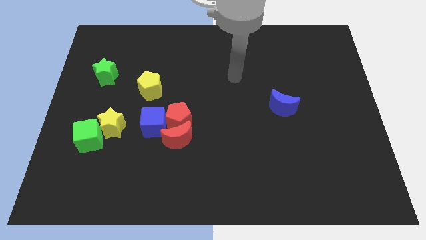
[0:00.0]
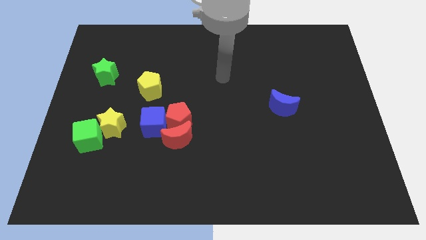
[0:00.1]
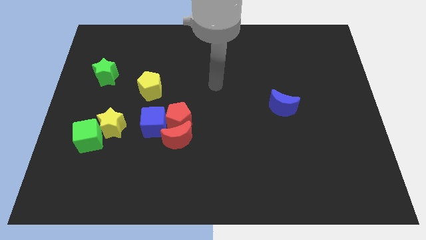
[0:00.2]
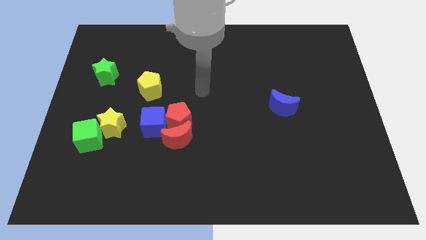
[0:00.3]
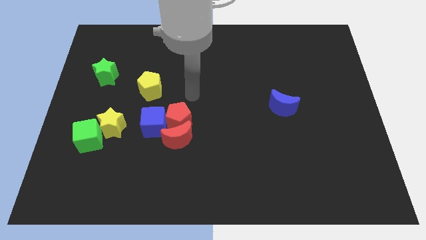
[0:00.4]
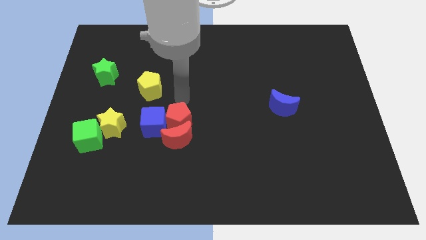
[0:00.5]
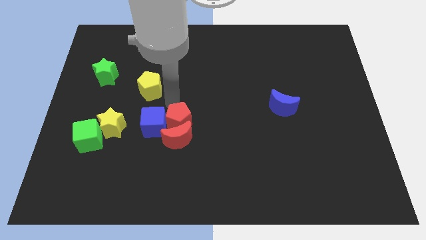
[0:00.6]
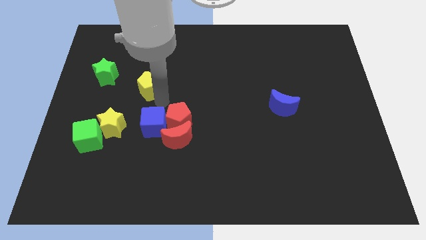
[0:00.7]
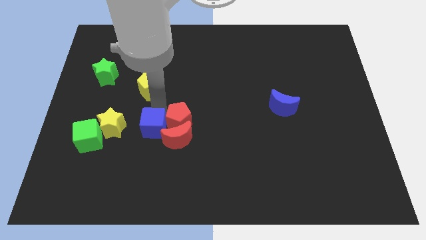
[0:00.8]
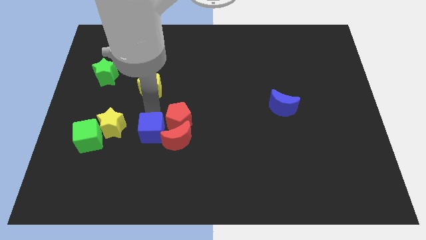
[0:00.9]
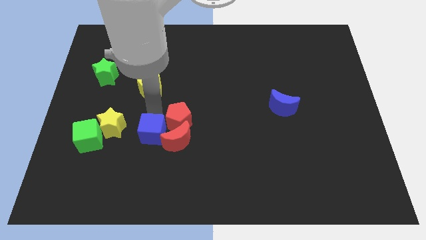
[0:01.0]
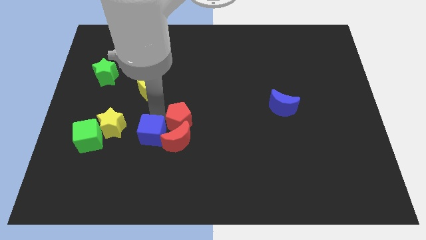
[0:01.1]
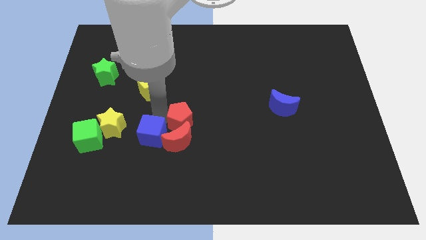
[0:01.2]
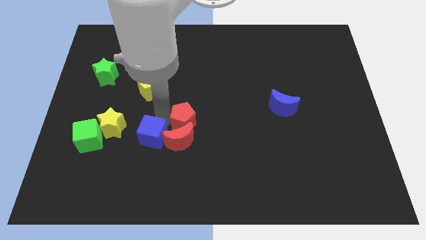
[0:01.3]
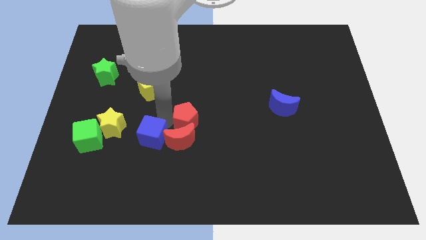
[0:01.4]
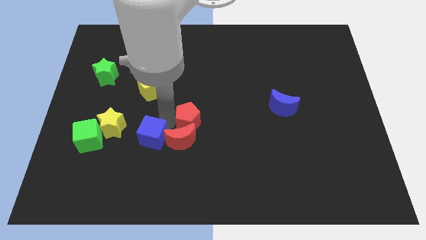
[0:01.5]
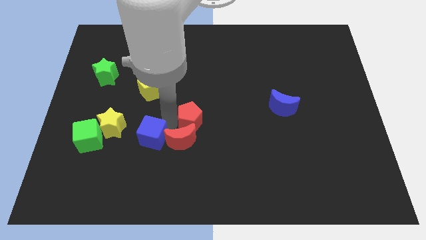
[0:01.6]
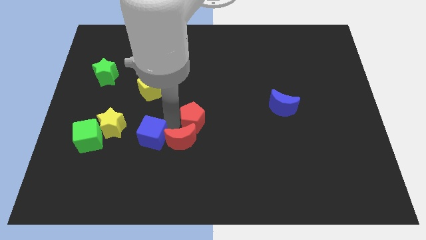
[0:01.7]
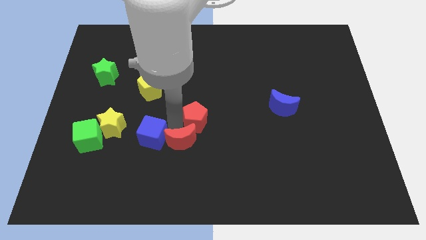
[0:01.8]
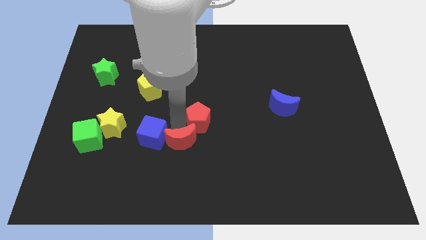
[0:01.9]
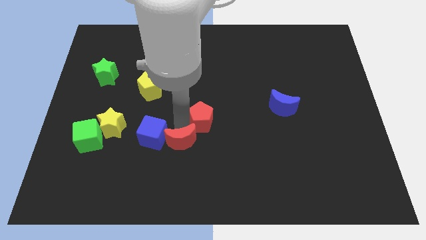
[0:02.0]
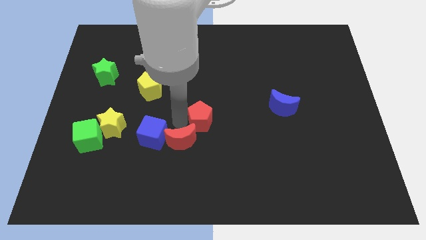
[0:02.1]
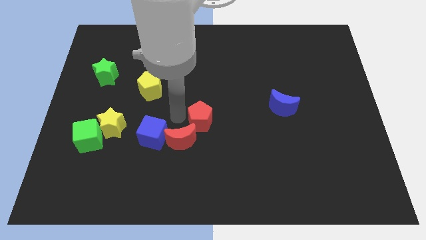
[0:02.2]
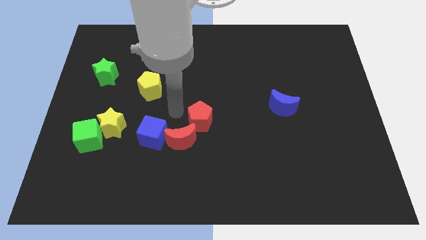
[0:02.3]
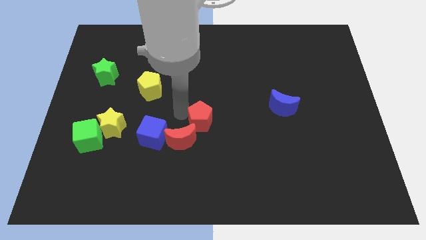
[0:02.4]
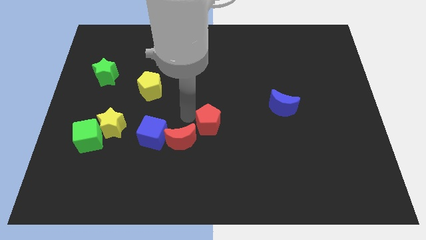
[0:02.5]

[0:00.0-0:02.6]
push the red pentagon right a bit

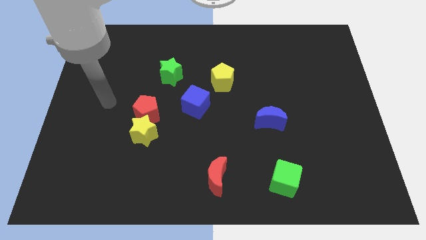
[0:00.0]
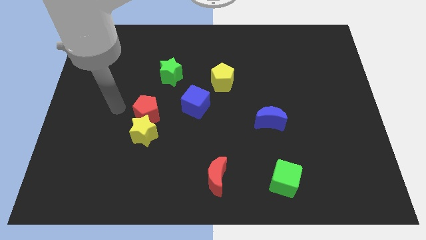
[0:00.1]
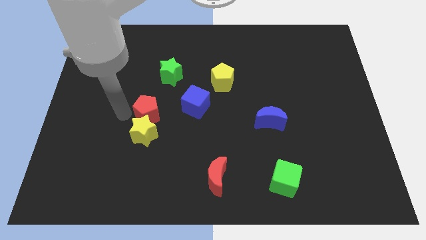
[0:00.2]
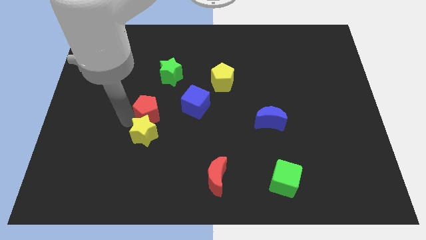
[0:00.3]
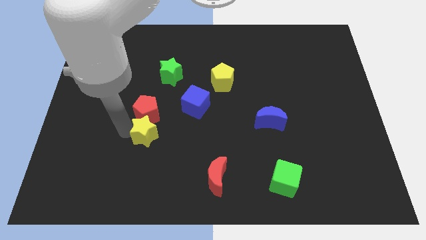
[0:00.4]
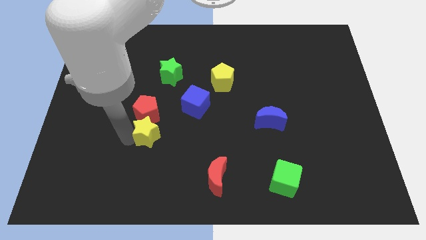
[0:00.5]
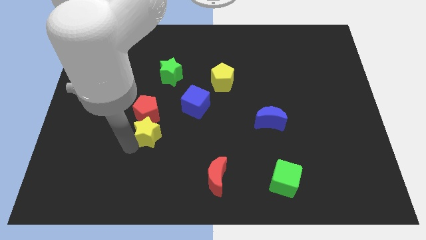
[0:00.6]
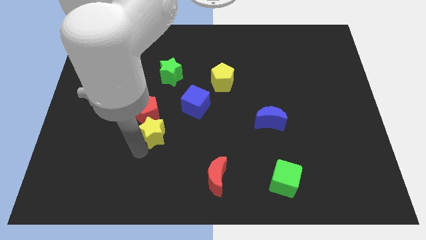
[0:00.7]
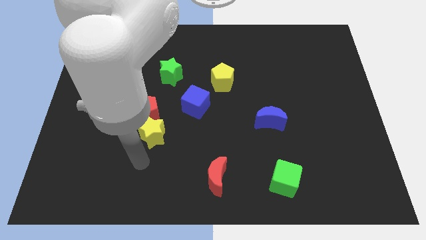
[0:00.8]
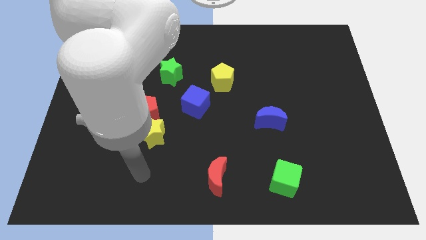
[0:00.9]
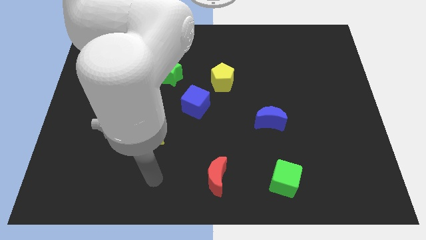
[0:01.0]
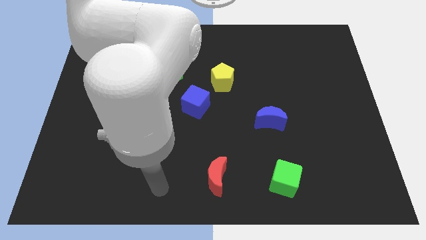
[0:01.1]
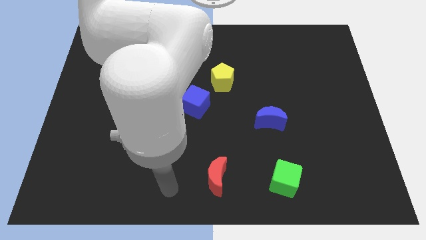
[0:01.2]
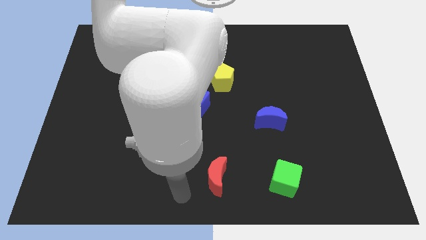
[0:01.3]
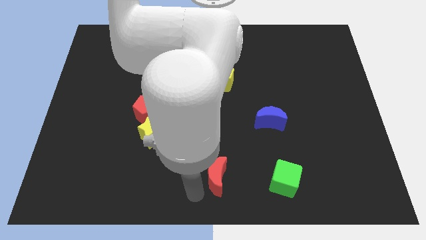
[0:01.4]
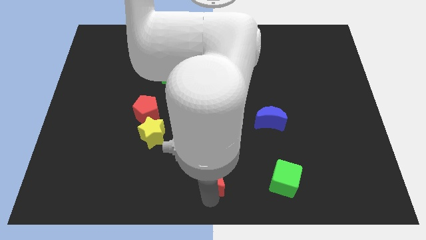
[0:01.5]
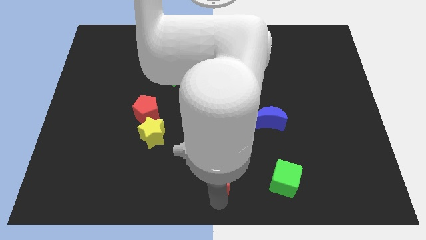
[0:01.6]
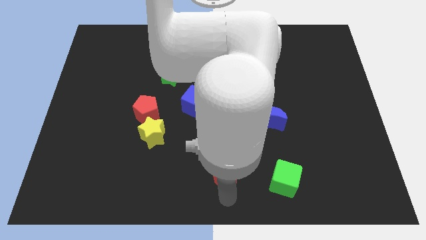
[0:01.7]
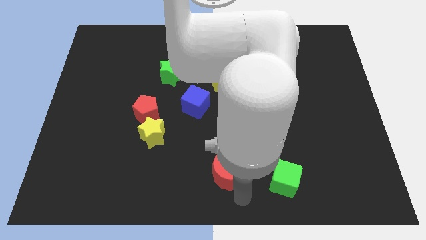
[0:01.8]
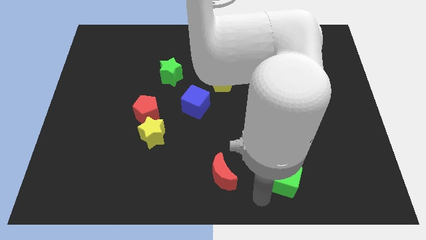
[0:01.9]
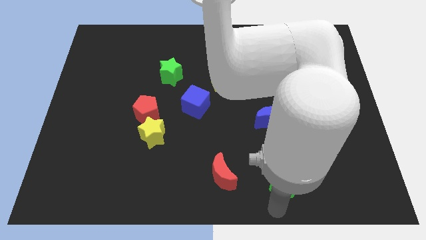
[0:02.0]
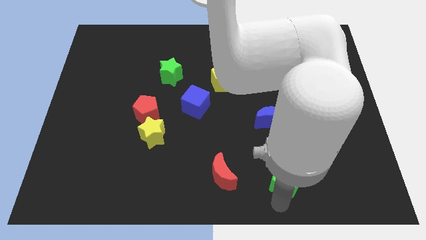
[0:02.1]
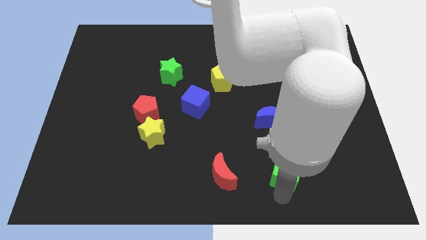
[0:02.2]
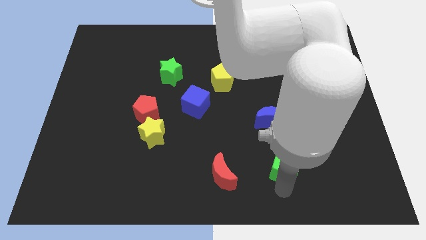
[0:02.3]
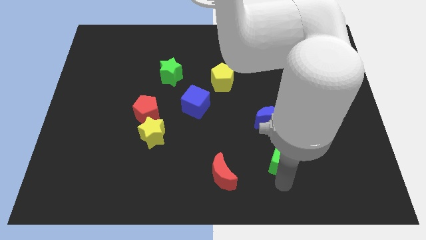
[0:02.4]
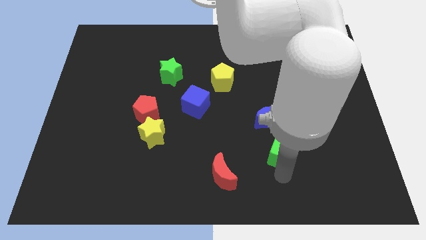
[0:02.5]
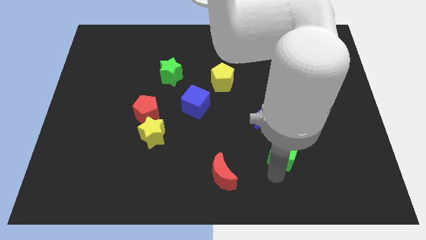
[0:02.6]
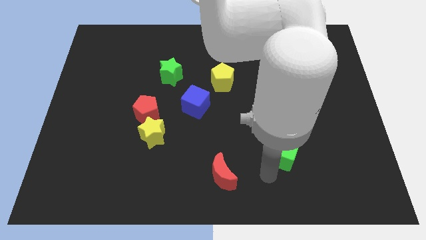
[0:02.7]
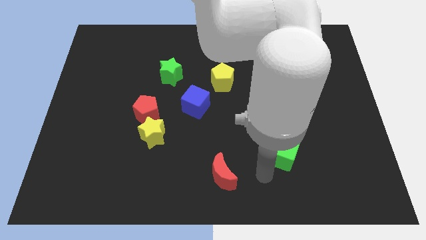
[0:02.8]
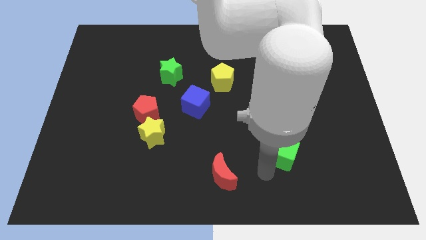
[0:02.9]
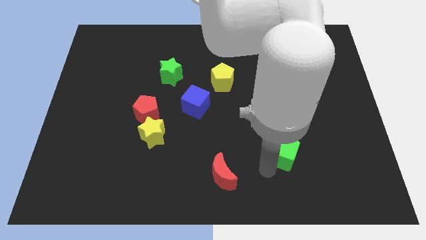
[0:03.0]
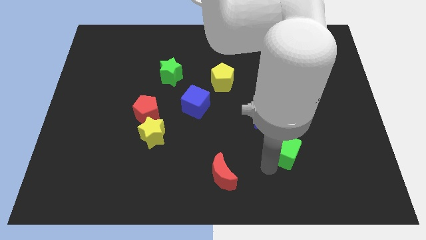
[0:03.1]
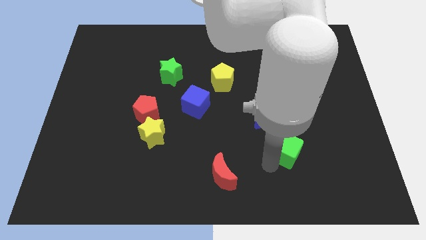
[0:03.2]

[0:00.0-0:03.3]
push the green cube a little bit up

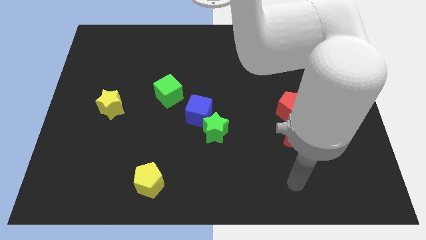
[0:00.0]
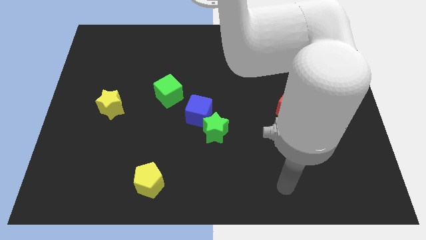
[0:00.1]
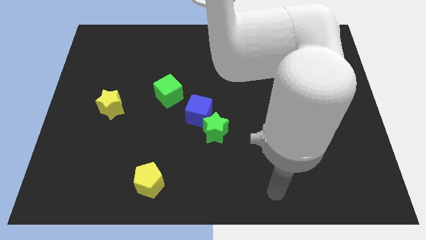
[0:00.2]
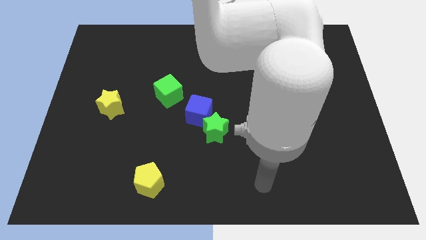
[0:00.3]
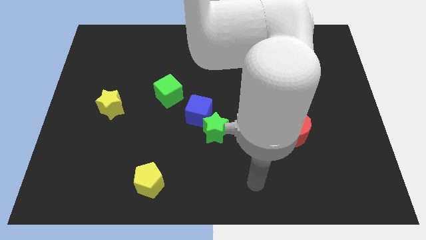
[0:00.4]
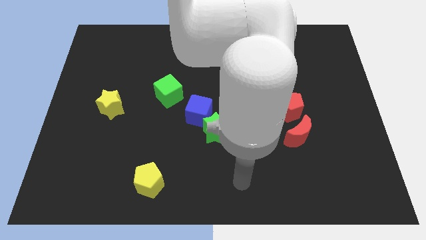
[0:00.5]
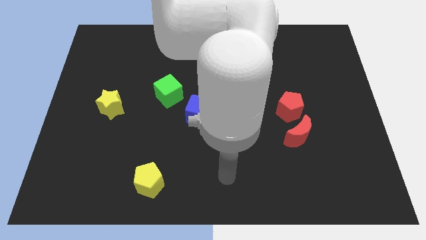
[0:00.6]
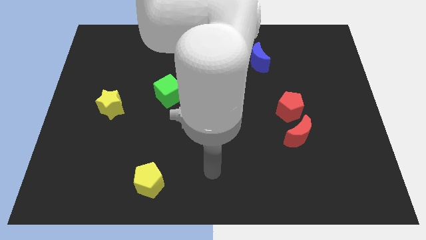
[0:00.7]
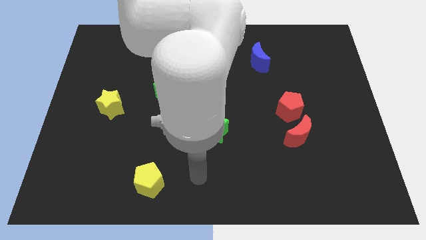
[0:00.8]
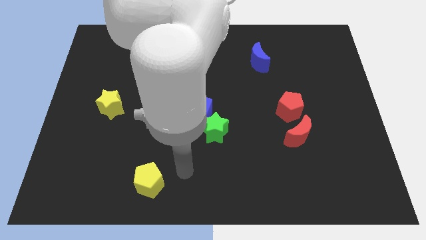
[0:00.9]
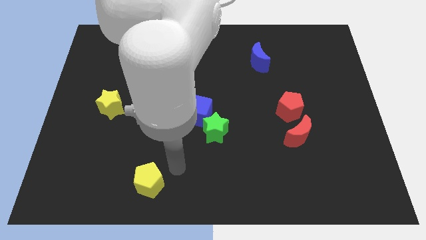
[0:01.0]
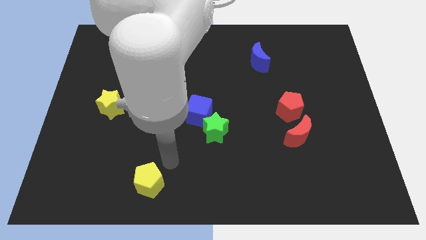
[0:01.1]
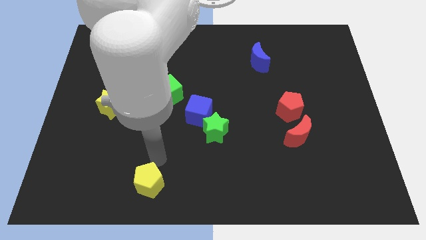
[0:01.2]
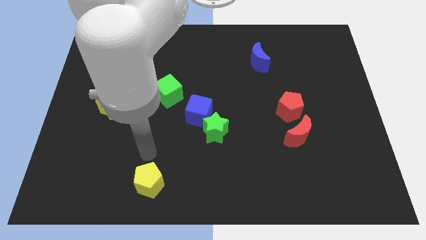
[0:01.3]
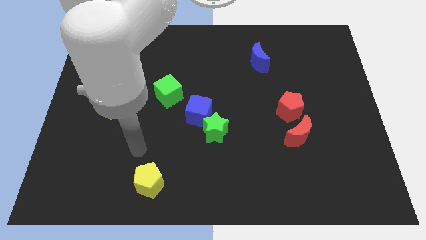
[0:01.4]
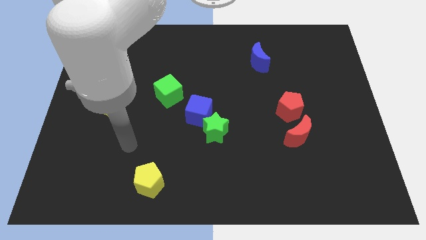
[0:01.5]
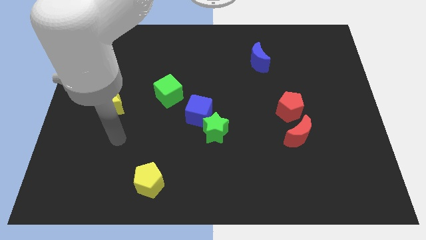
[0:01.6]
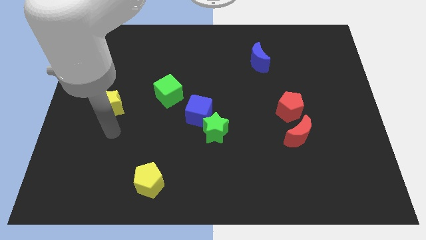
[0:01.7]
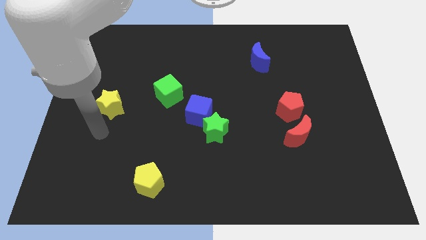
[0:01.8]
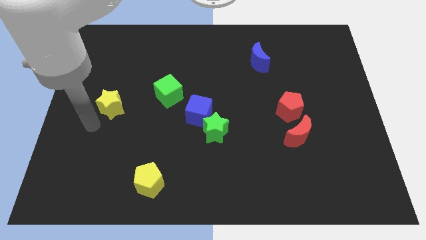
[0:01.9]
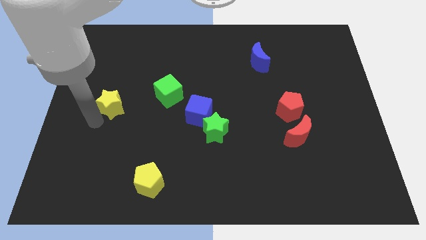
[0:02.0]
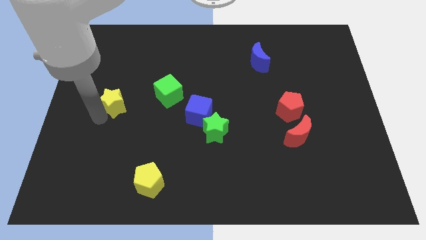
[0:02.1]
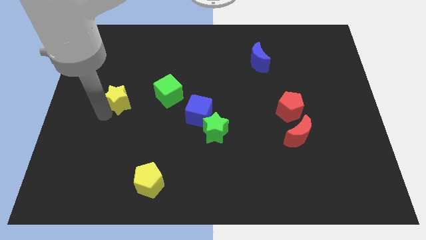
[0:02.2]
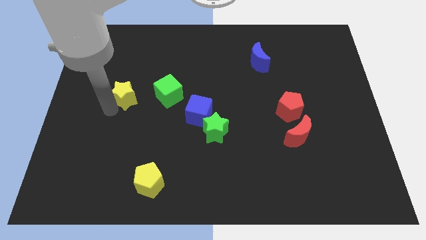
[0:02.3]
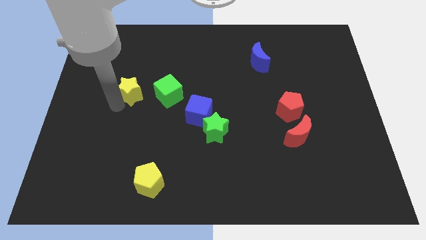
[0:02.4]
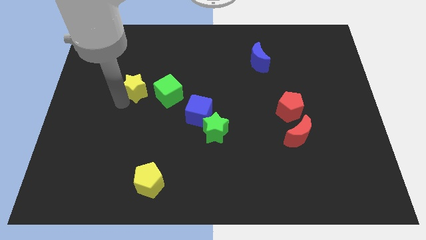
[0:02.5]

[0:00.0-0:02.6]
push the yellow star upwards and to the right a little
